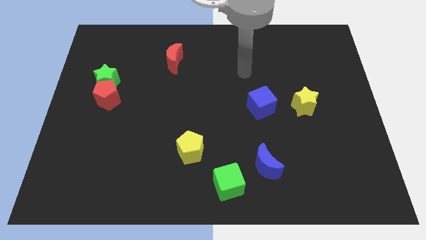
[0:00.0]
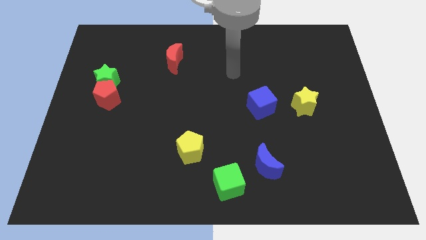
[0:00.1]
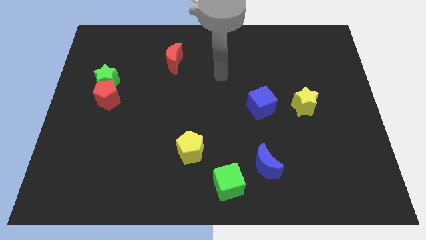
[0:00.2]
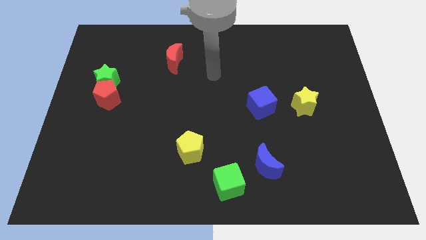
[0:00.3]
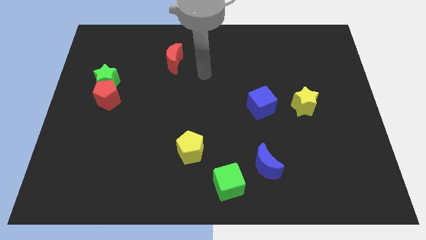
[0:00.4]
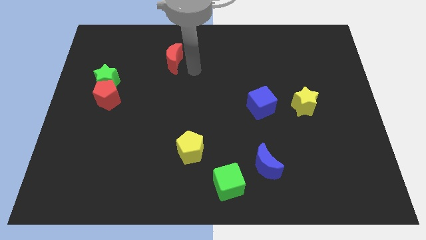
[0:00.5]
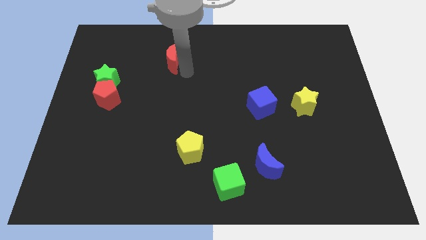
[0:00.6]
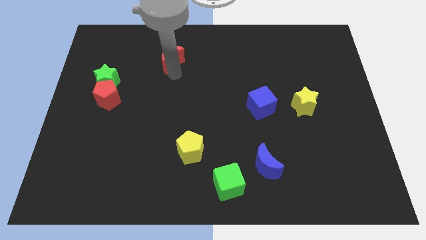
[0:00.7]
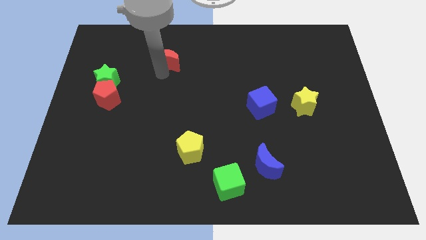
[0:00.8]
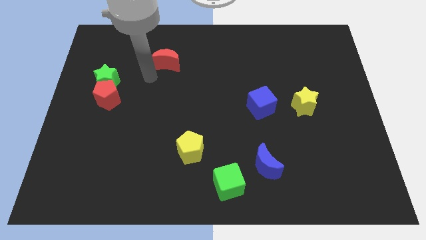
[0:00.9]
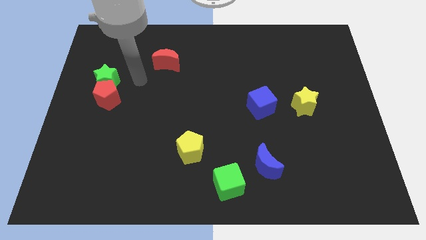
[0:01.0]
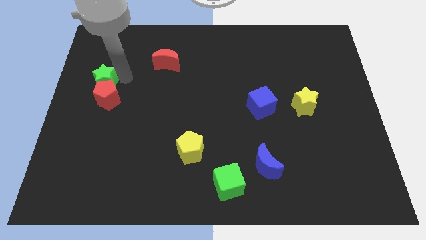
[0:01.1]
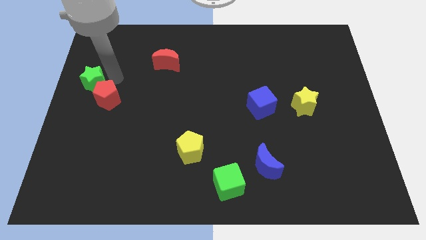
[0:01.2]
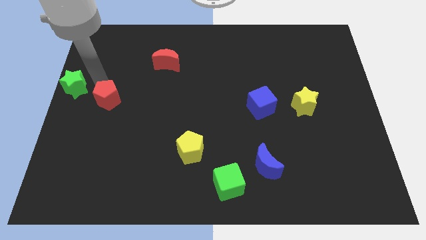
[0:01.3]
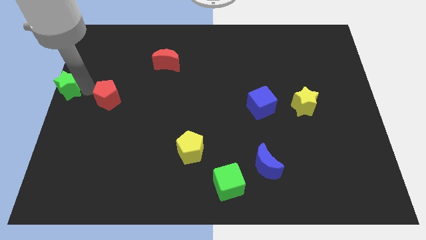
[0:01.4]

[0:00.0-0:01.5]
separate the red pentagon from the green star

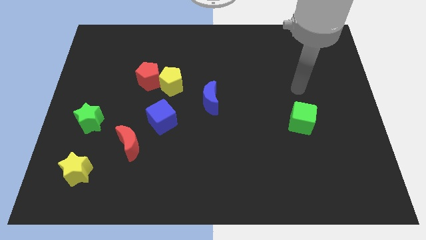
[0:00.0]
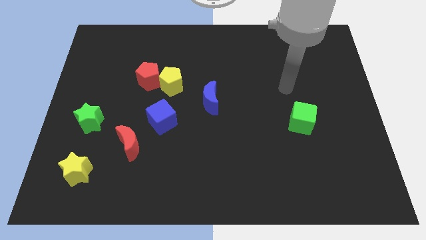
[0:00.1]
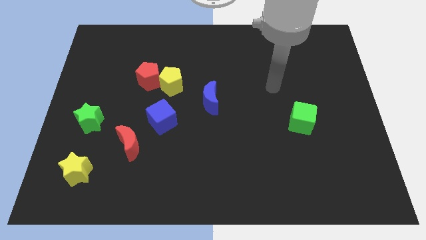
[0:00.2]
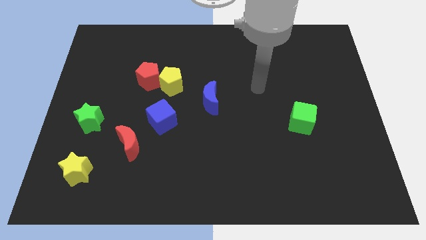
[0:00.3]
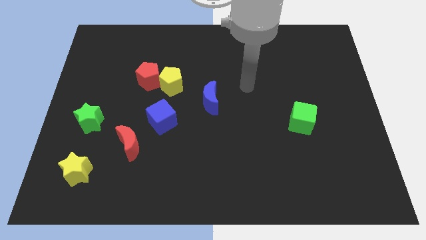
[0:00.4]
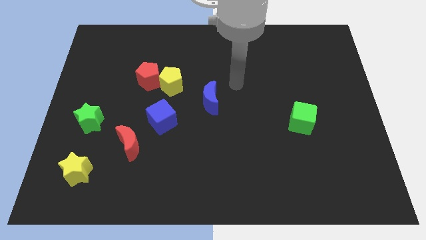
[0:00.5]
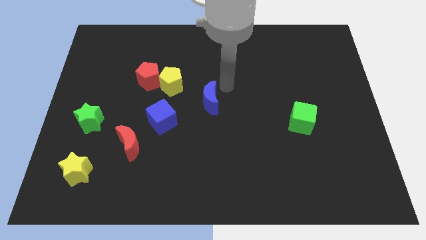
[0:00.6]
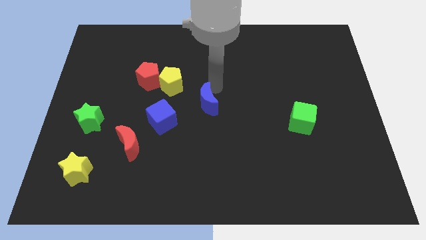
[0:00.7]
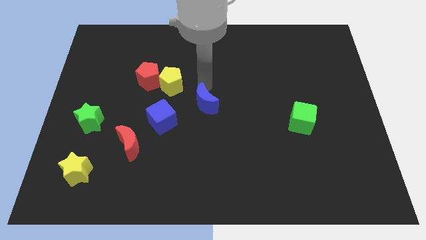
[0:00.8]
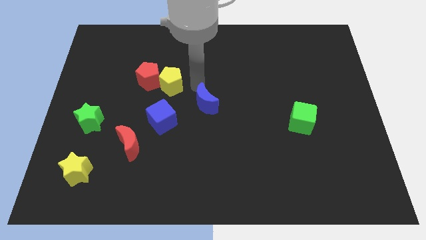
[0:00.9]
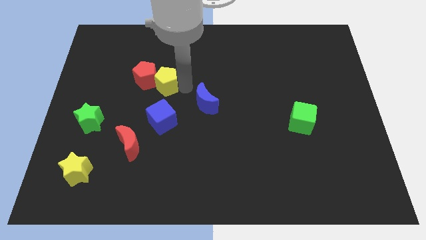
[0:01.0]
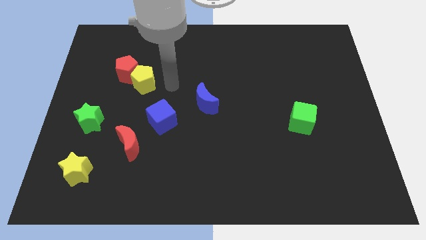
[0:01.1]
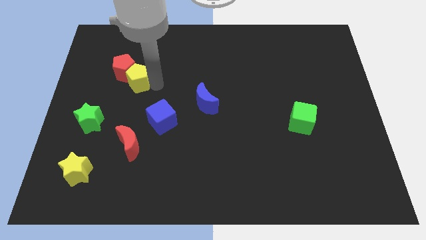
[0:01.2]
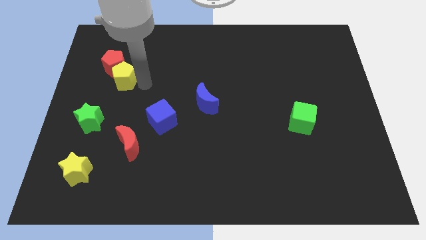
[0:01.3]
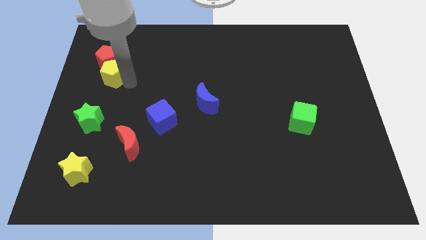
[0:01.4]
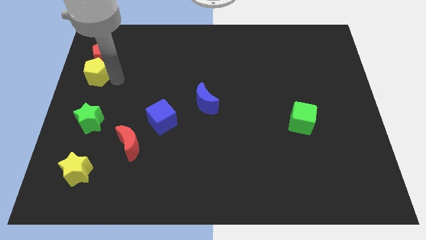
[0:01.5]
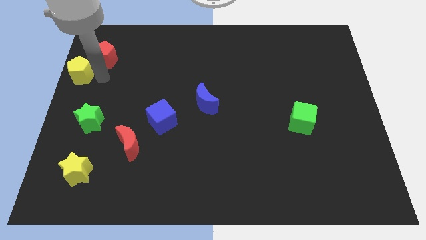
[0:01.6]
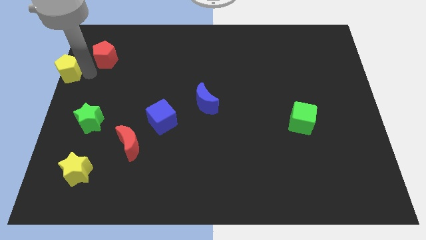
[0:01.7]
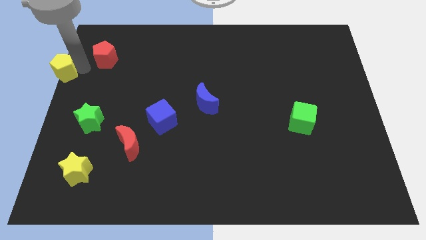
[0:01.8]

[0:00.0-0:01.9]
move the red pentagon away from the yellow pentagon

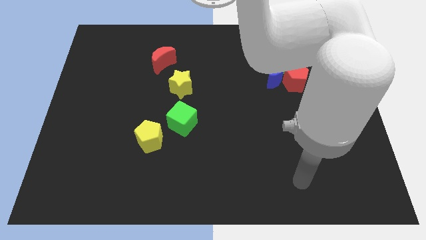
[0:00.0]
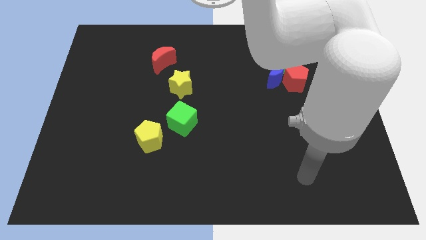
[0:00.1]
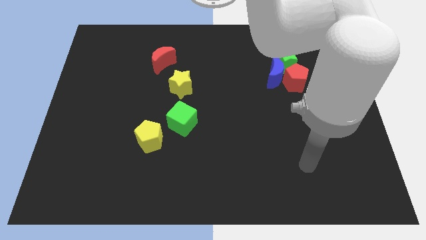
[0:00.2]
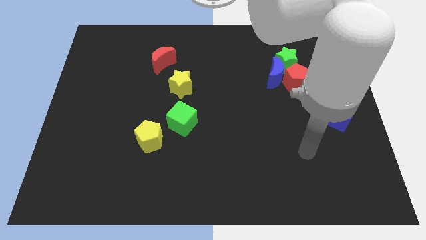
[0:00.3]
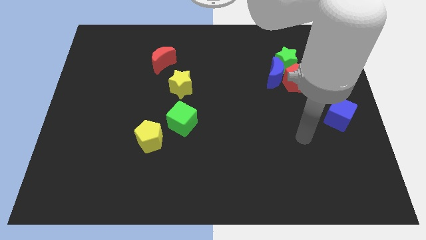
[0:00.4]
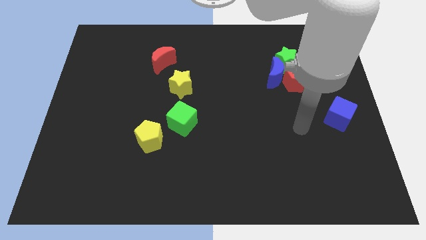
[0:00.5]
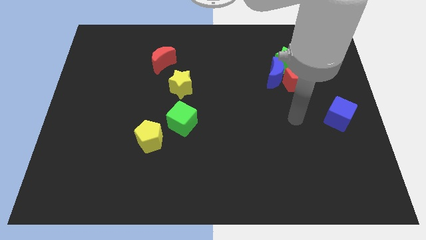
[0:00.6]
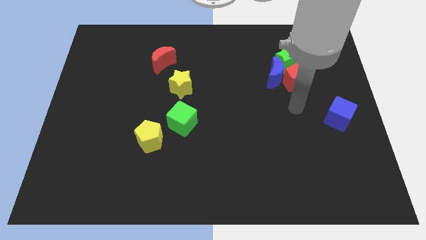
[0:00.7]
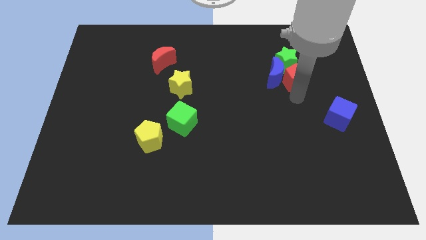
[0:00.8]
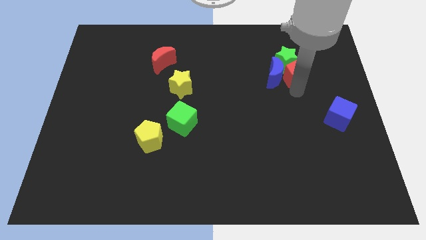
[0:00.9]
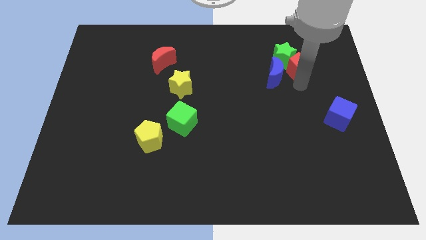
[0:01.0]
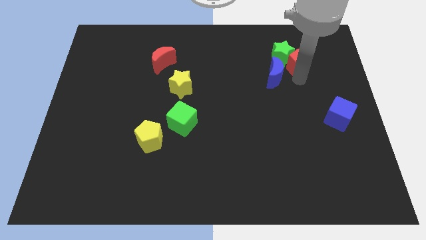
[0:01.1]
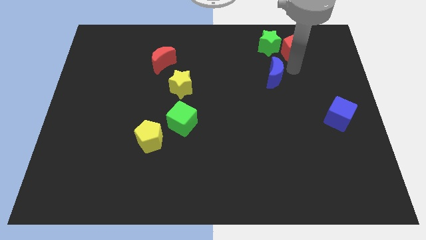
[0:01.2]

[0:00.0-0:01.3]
move the blue moon away from the red pentagon and green star

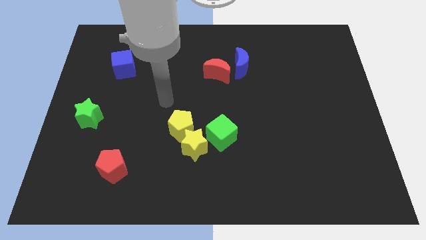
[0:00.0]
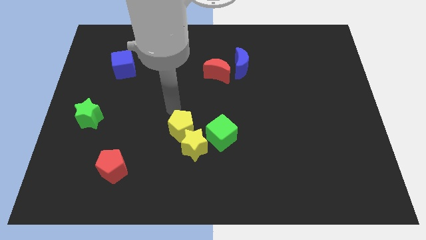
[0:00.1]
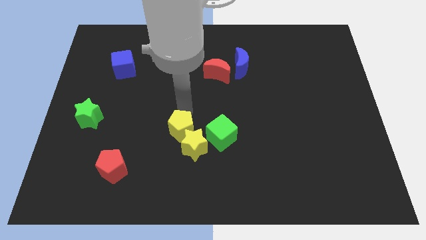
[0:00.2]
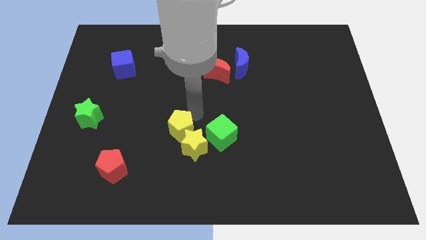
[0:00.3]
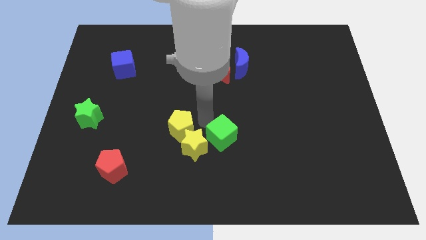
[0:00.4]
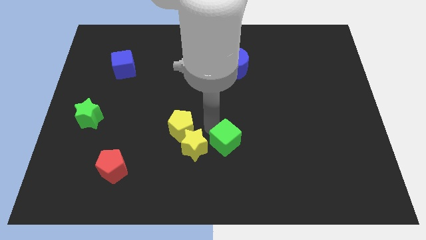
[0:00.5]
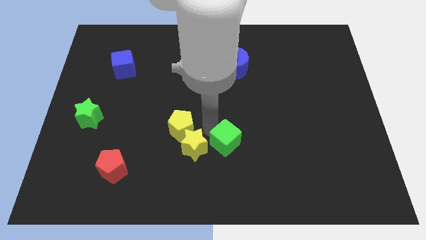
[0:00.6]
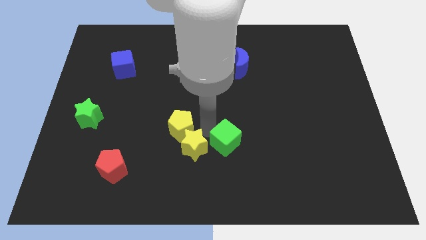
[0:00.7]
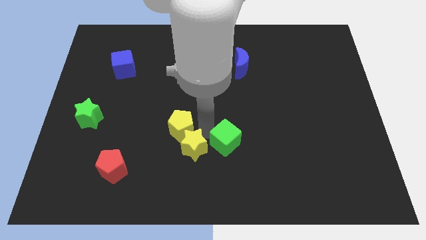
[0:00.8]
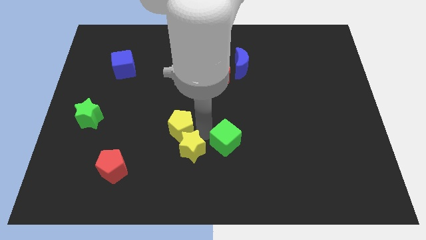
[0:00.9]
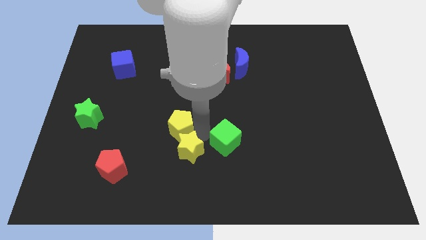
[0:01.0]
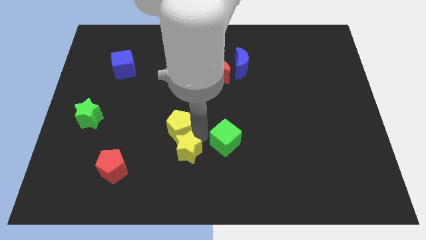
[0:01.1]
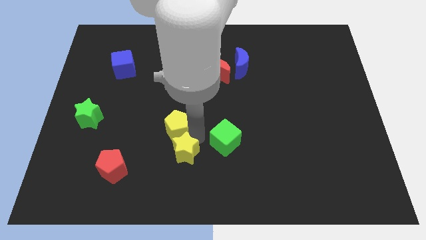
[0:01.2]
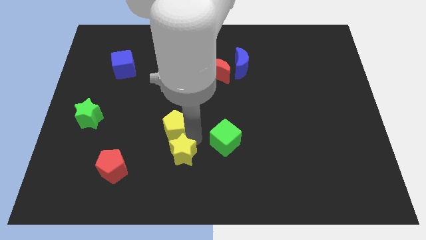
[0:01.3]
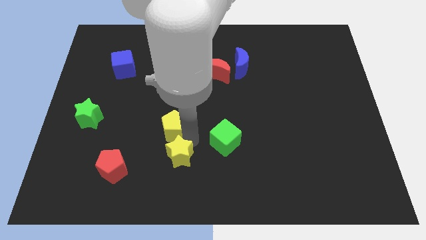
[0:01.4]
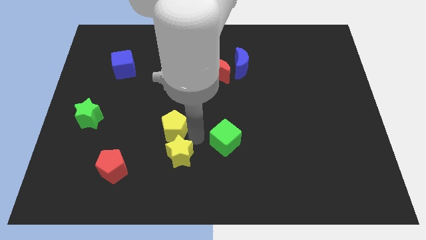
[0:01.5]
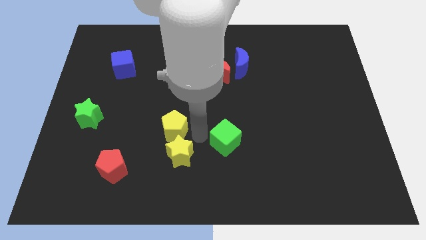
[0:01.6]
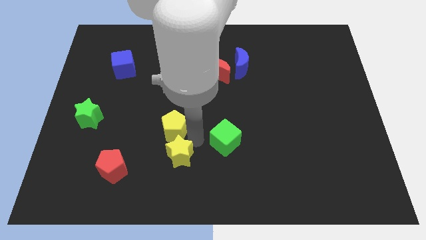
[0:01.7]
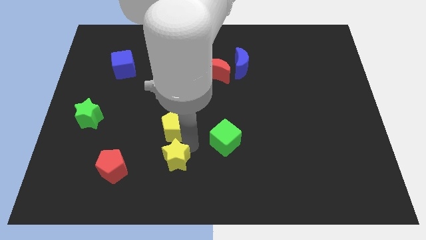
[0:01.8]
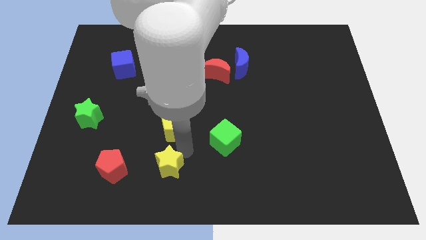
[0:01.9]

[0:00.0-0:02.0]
separate the yellow star from the yellow pentagon and green cube

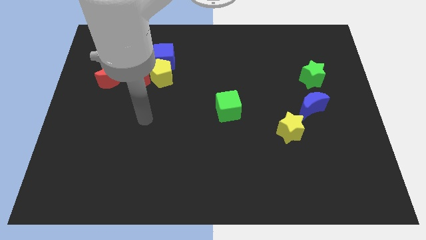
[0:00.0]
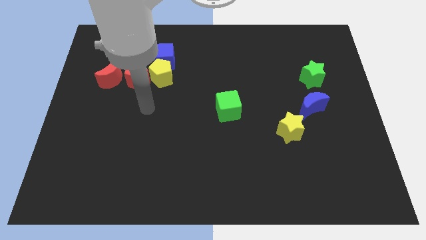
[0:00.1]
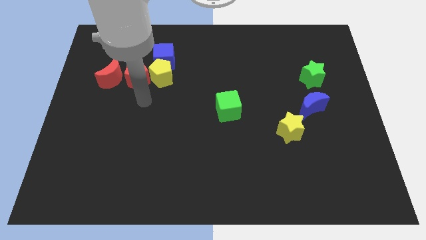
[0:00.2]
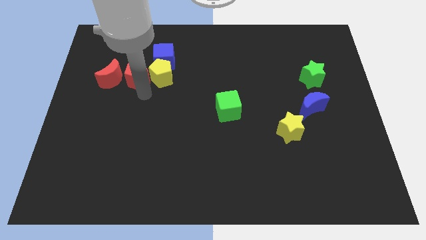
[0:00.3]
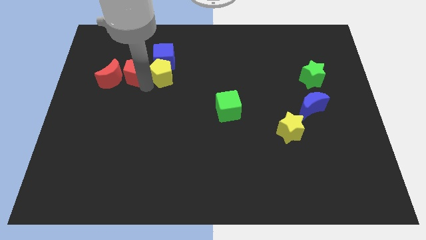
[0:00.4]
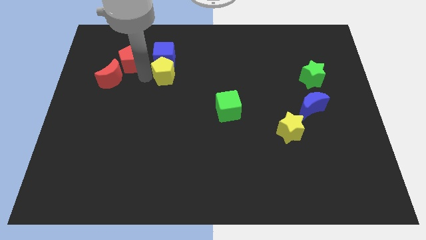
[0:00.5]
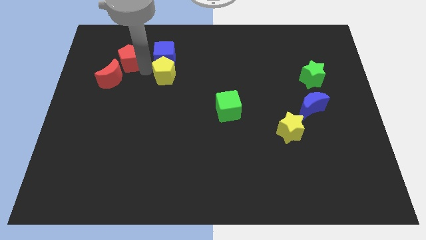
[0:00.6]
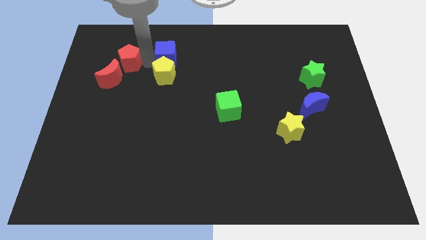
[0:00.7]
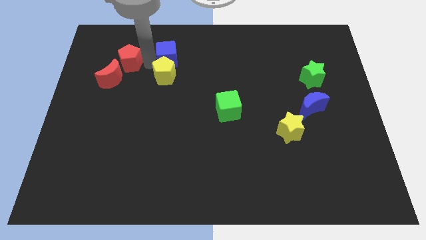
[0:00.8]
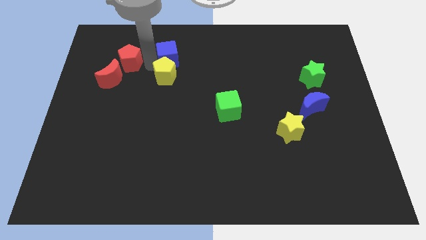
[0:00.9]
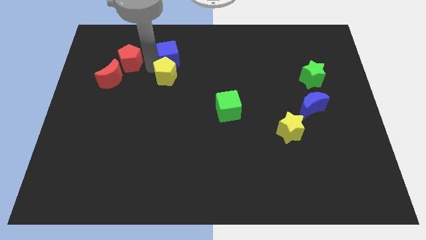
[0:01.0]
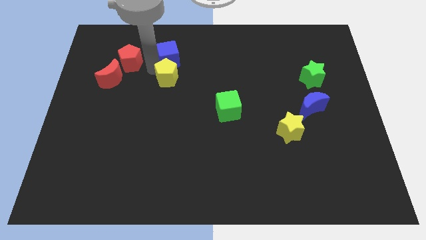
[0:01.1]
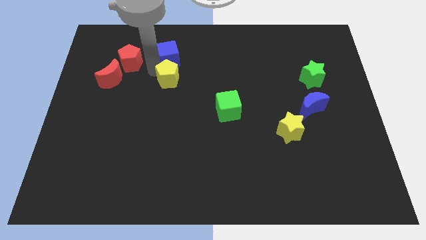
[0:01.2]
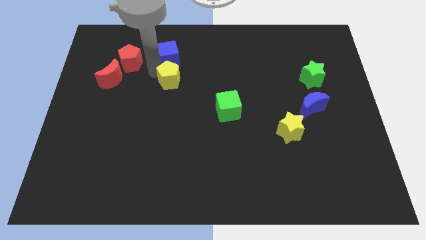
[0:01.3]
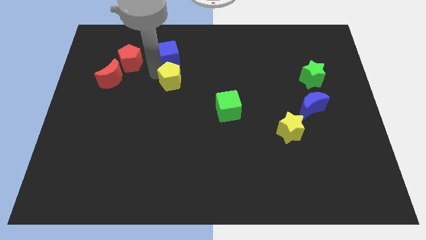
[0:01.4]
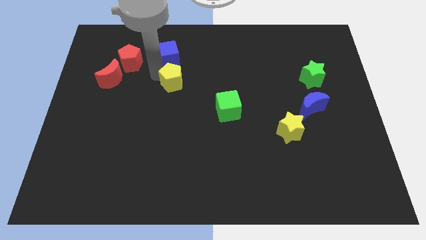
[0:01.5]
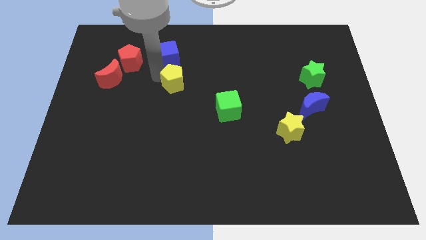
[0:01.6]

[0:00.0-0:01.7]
move the yellow pentagon away from the red pentagon and blue cube

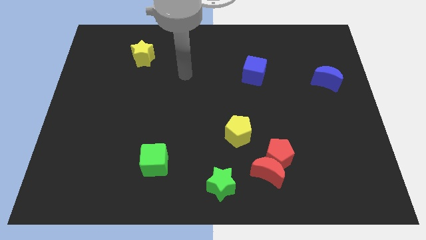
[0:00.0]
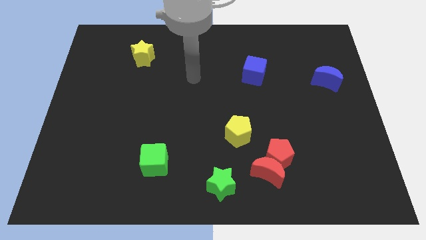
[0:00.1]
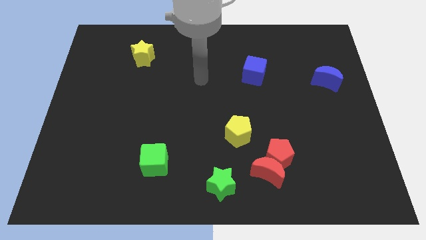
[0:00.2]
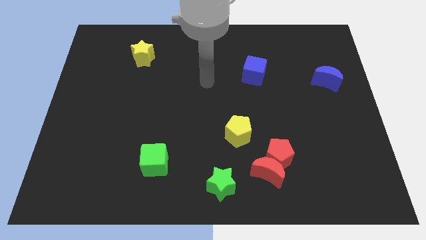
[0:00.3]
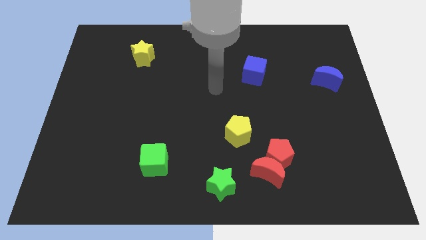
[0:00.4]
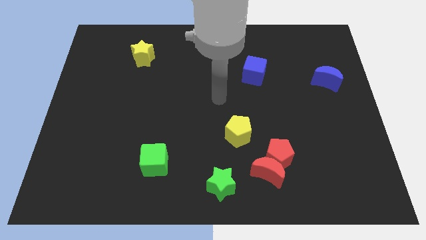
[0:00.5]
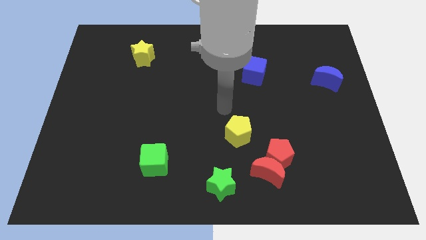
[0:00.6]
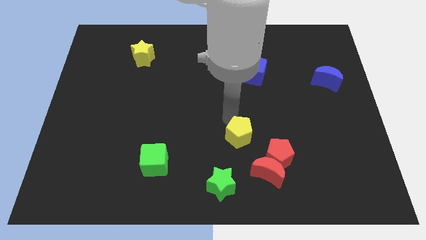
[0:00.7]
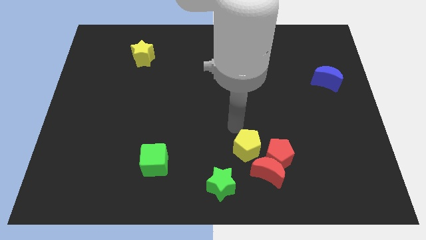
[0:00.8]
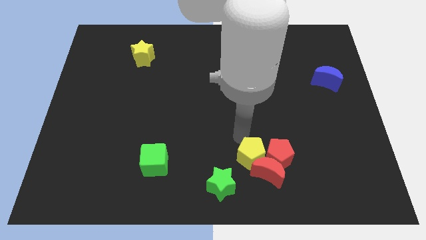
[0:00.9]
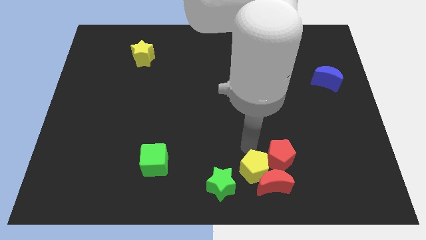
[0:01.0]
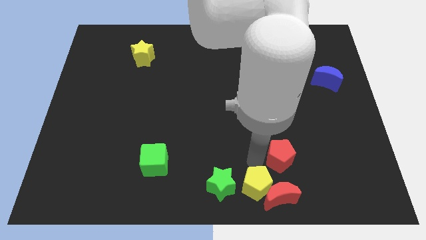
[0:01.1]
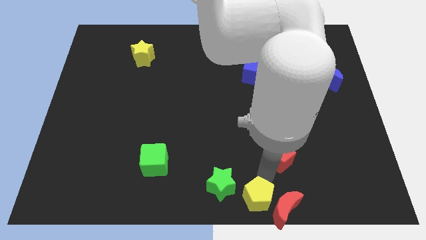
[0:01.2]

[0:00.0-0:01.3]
move the red pentagon away from the red moon and yellow pentagon
